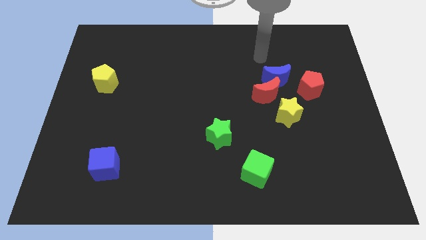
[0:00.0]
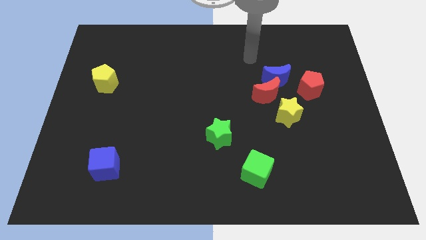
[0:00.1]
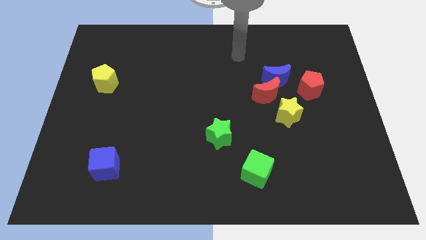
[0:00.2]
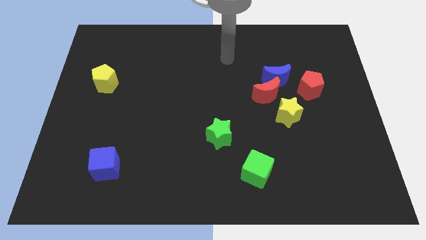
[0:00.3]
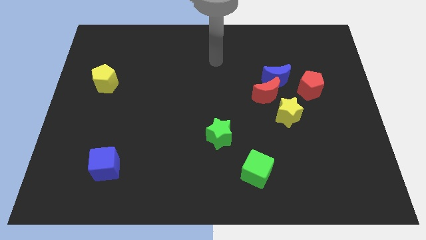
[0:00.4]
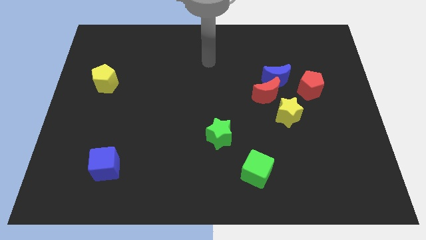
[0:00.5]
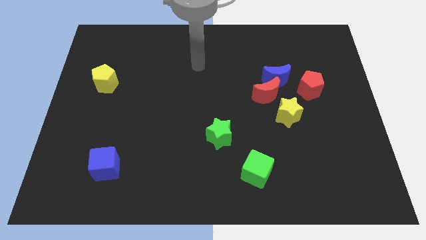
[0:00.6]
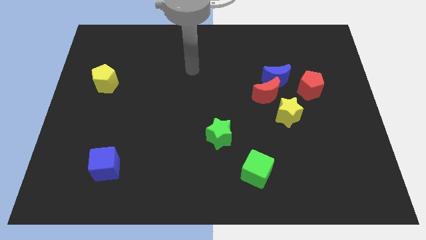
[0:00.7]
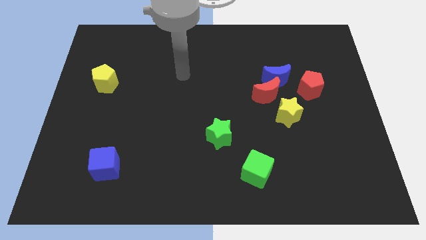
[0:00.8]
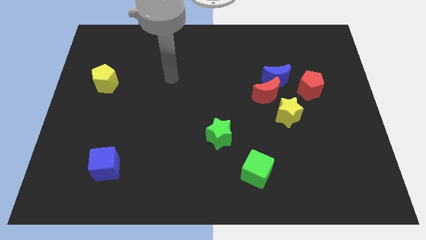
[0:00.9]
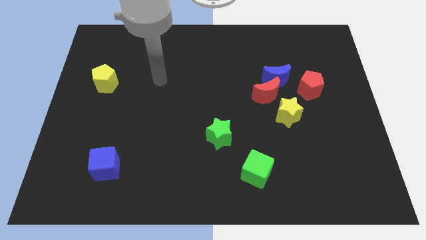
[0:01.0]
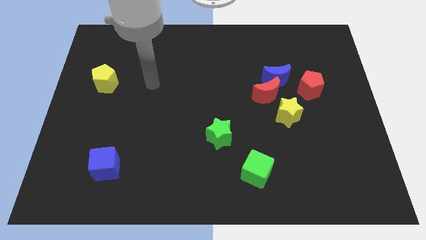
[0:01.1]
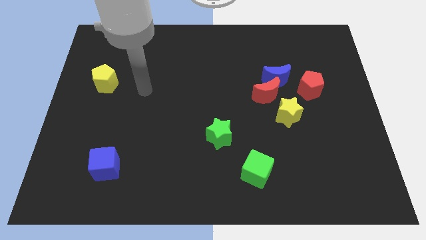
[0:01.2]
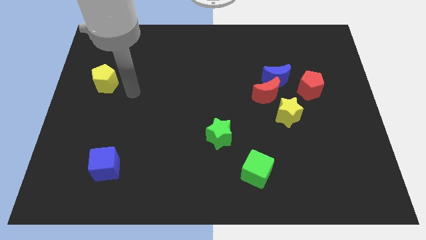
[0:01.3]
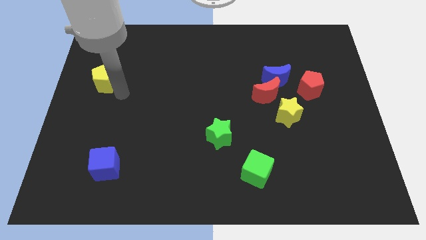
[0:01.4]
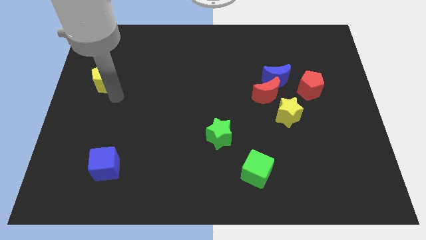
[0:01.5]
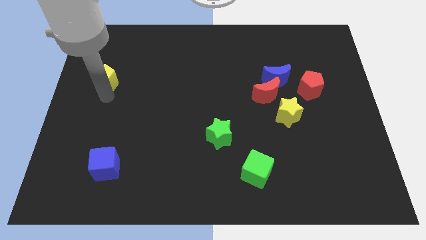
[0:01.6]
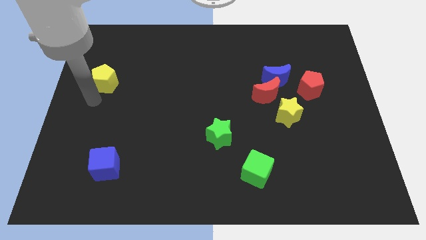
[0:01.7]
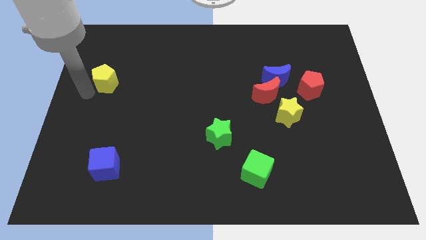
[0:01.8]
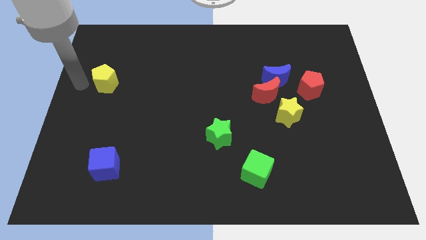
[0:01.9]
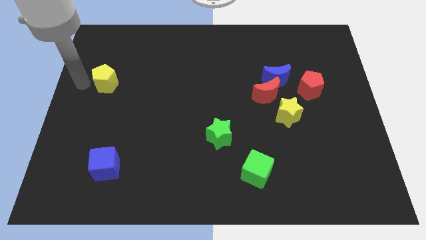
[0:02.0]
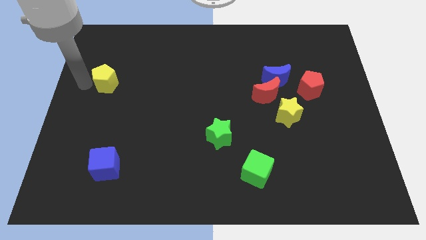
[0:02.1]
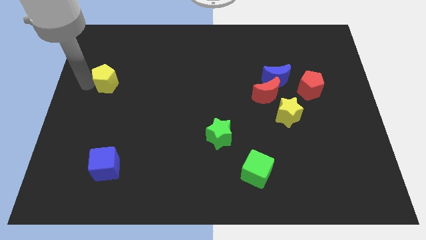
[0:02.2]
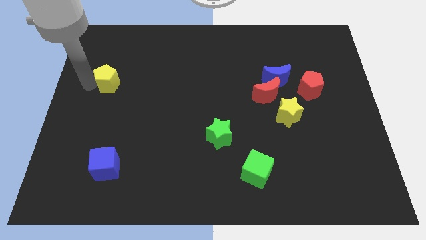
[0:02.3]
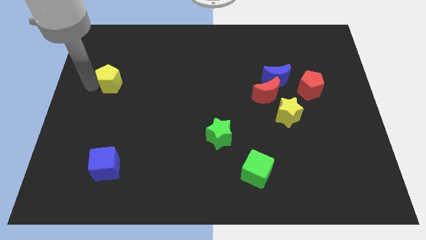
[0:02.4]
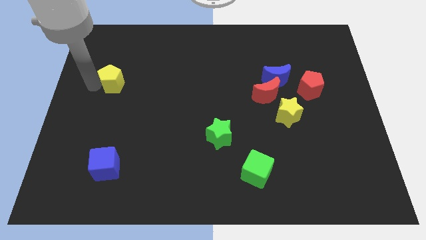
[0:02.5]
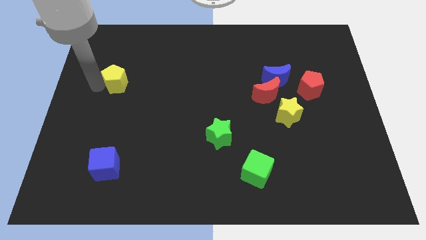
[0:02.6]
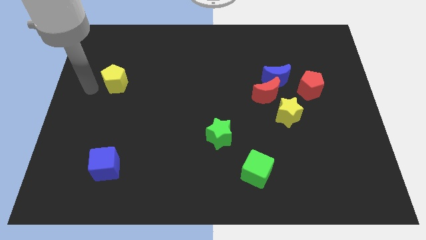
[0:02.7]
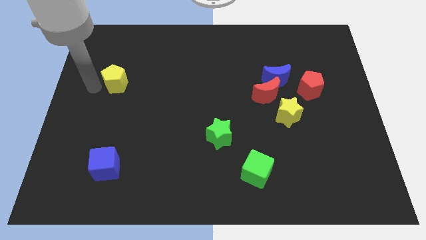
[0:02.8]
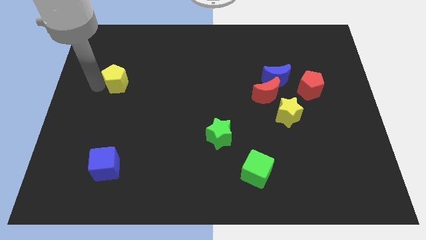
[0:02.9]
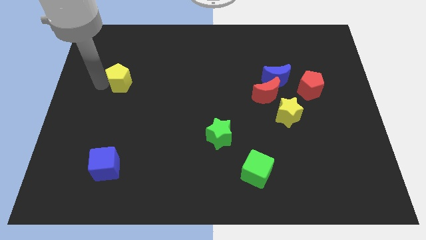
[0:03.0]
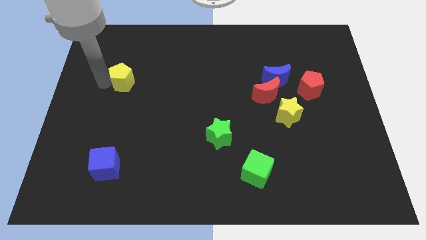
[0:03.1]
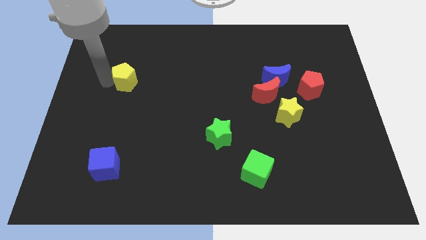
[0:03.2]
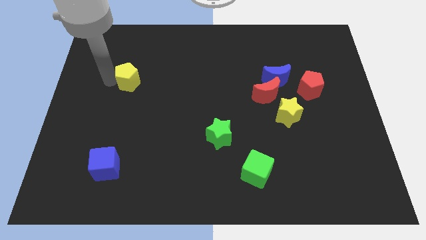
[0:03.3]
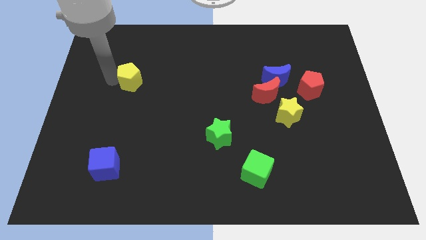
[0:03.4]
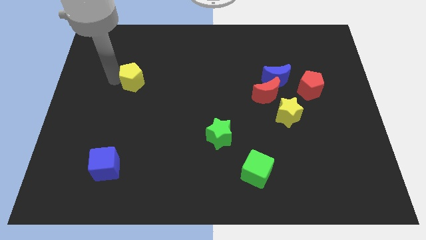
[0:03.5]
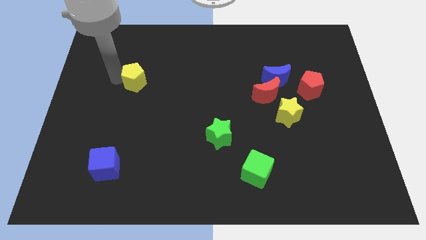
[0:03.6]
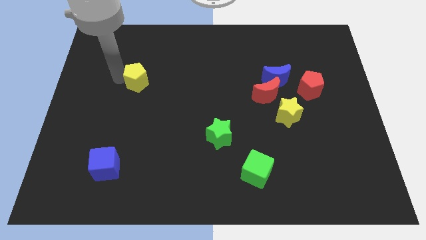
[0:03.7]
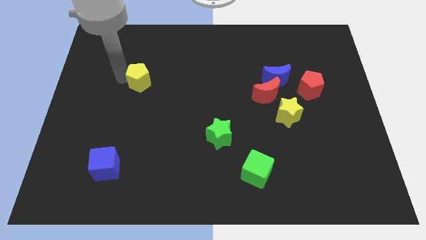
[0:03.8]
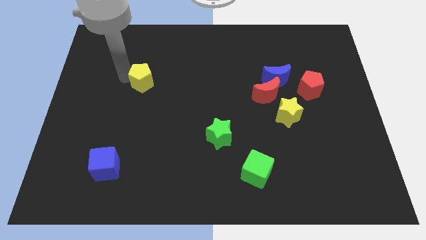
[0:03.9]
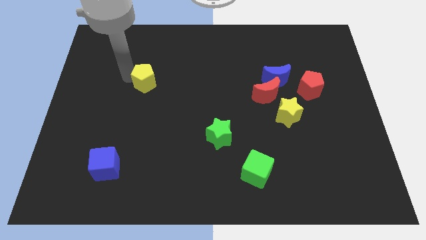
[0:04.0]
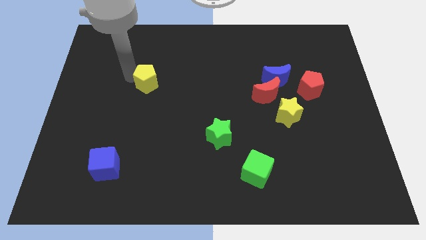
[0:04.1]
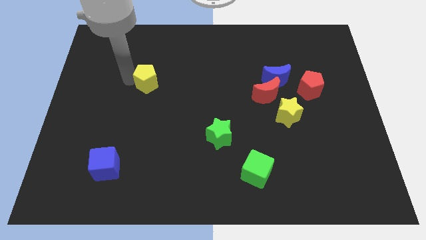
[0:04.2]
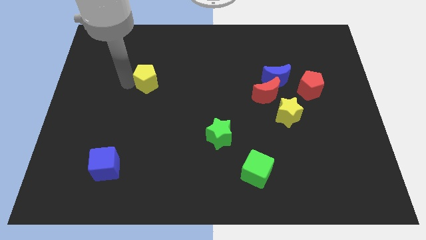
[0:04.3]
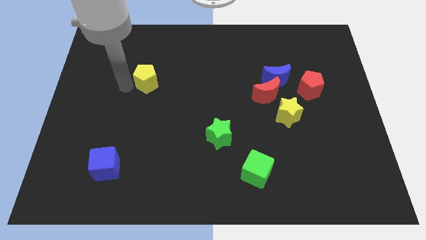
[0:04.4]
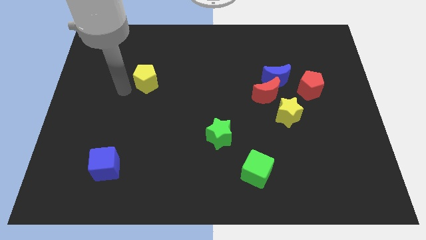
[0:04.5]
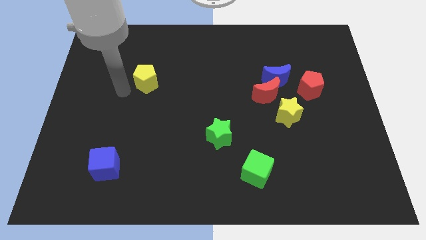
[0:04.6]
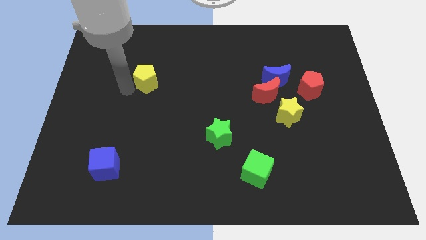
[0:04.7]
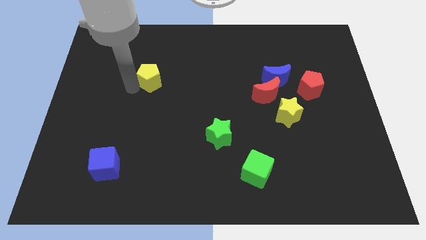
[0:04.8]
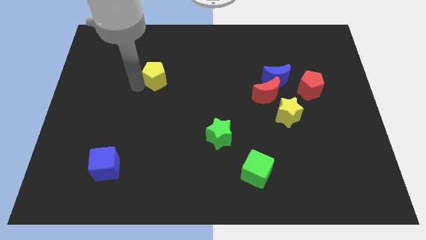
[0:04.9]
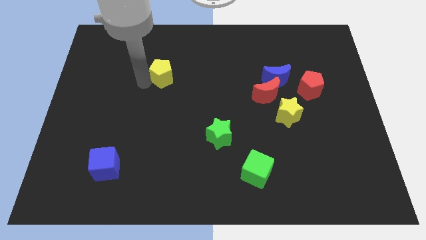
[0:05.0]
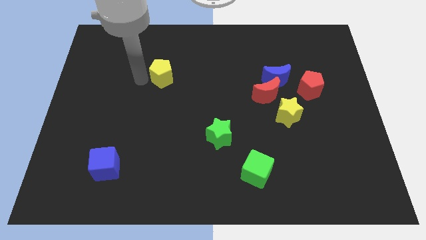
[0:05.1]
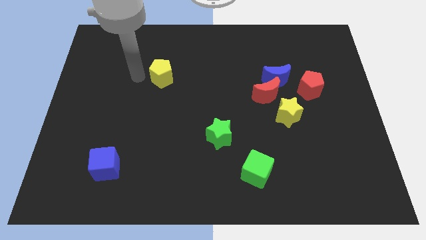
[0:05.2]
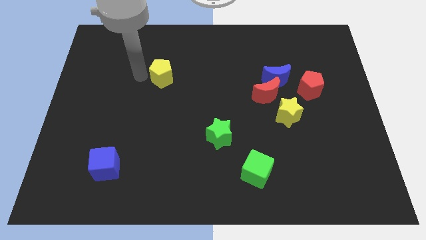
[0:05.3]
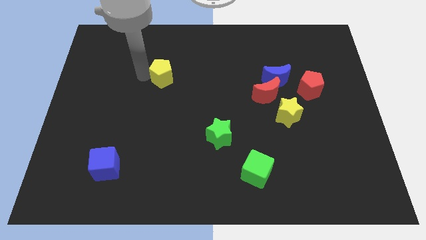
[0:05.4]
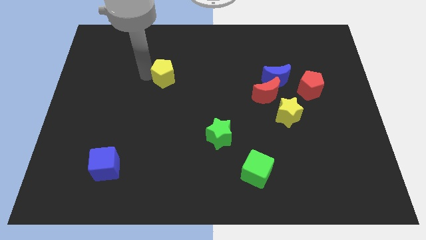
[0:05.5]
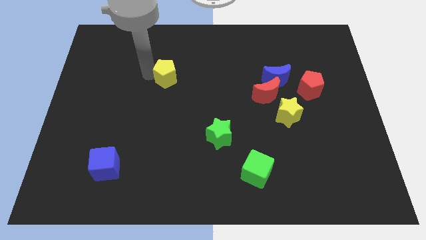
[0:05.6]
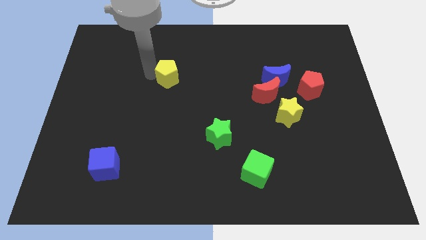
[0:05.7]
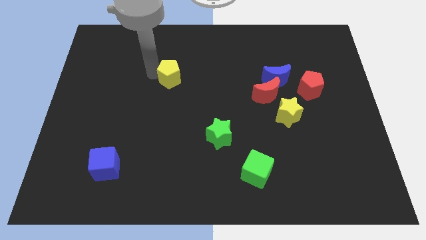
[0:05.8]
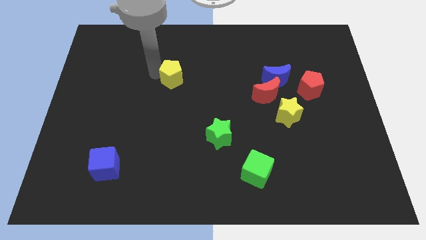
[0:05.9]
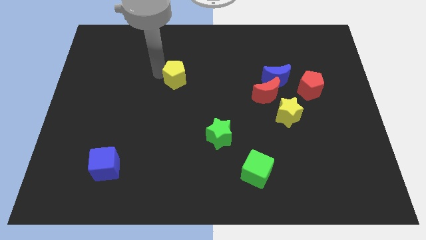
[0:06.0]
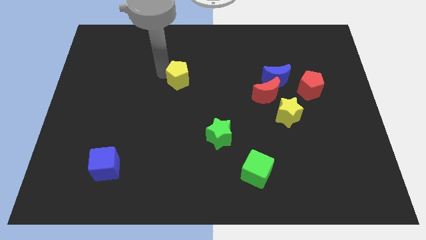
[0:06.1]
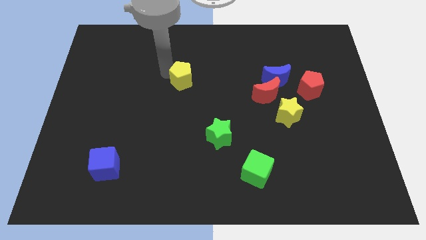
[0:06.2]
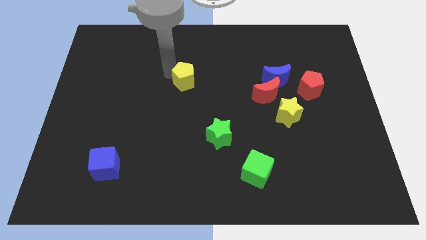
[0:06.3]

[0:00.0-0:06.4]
slide the yellow pentagon to the right

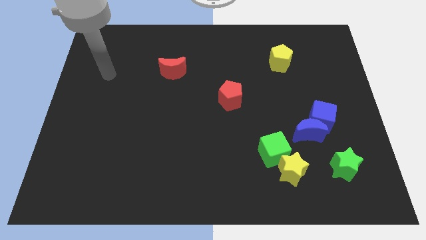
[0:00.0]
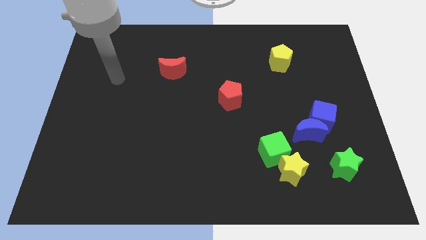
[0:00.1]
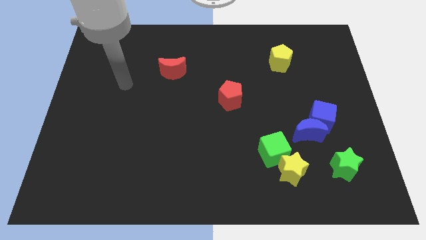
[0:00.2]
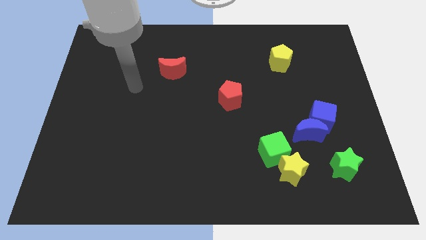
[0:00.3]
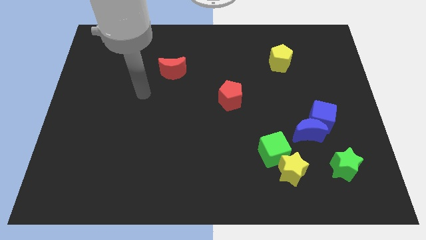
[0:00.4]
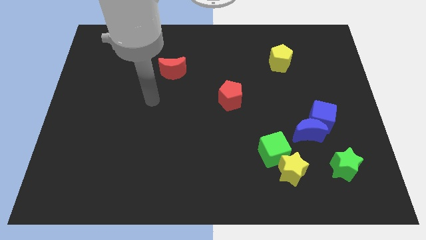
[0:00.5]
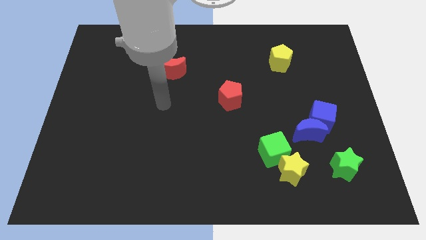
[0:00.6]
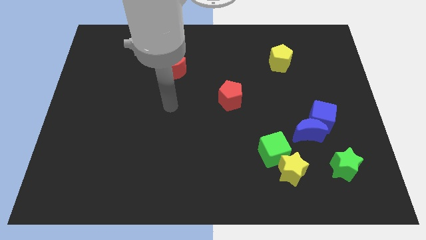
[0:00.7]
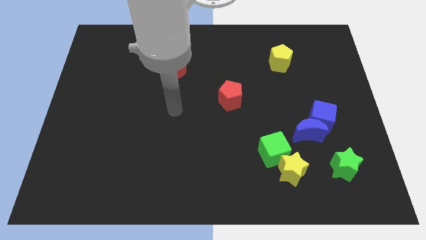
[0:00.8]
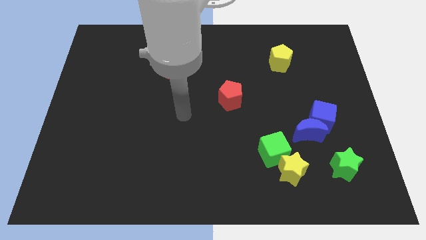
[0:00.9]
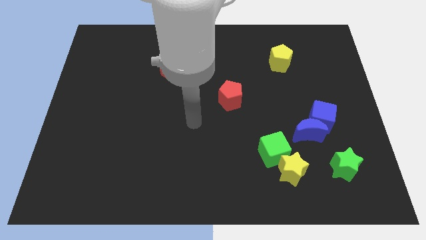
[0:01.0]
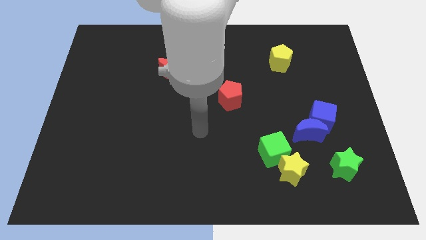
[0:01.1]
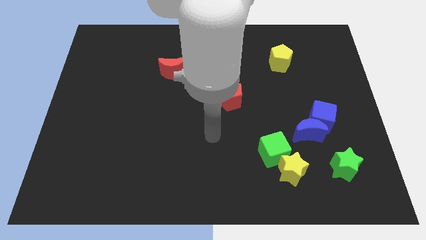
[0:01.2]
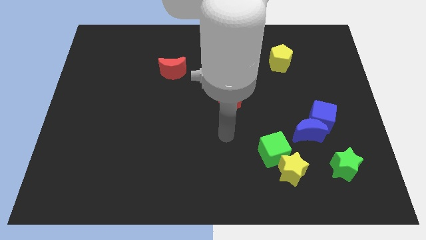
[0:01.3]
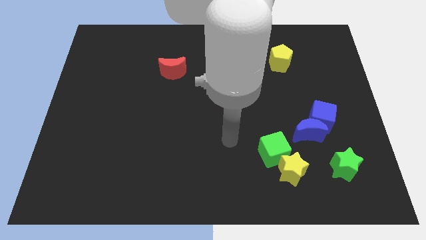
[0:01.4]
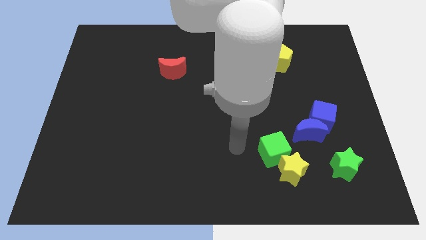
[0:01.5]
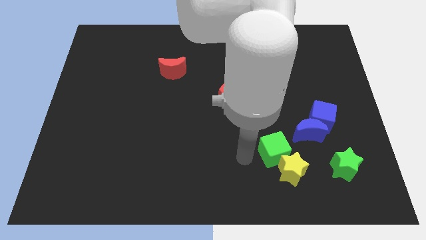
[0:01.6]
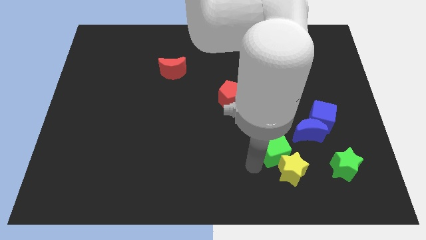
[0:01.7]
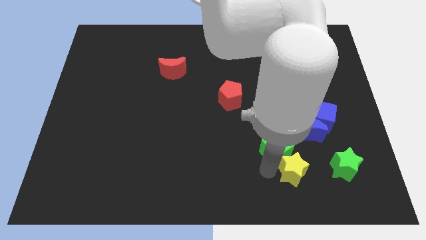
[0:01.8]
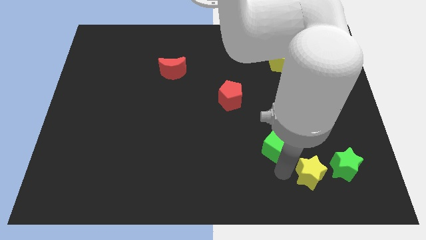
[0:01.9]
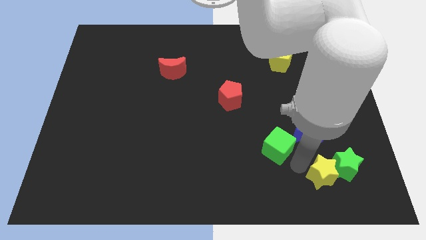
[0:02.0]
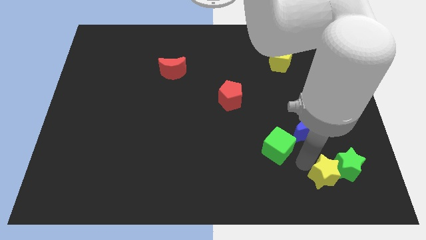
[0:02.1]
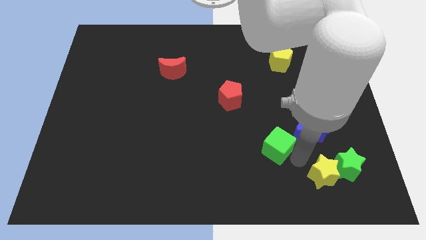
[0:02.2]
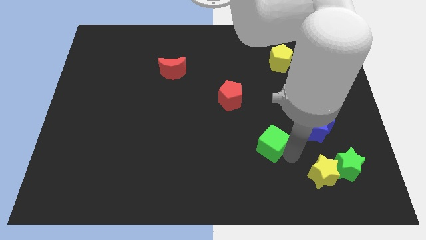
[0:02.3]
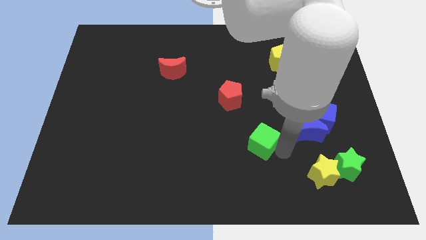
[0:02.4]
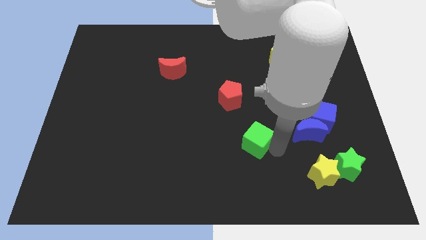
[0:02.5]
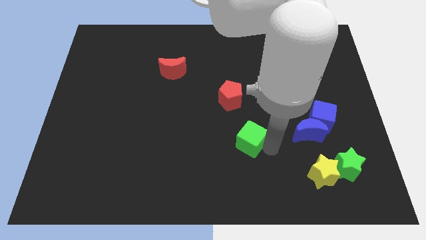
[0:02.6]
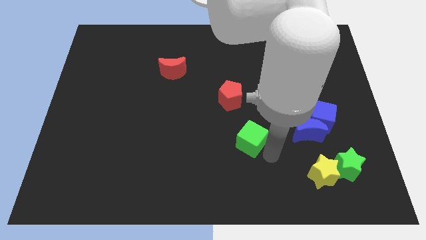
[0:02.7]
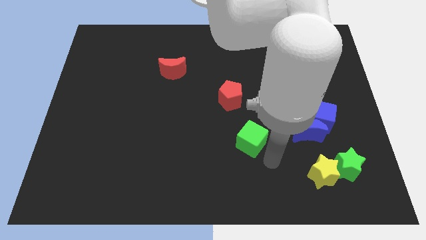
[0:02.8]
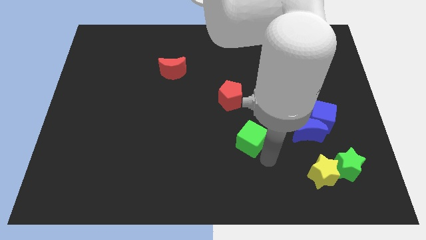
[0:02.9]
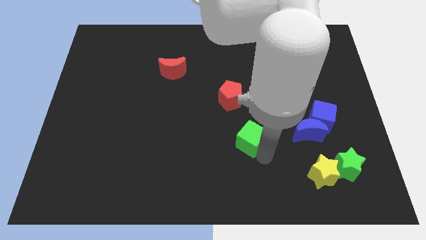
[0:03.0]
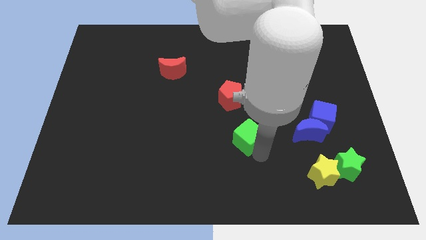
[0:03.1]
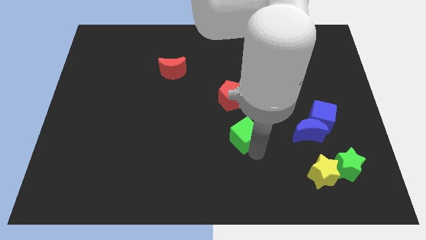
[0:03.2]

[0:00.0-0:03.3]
push the green cube slightly up and then left
